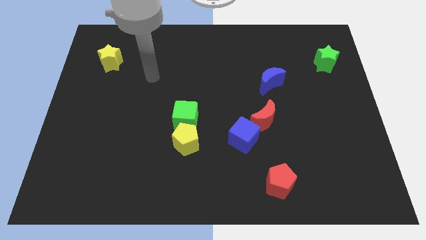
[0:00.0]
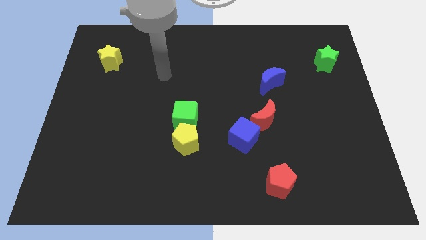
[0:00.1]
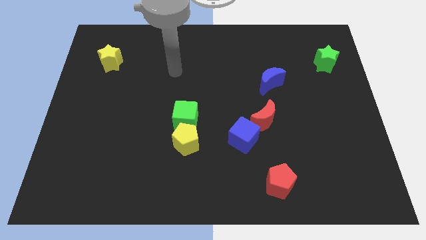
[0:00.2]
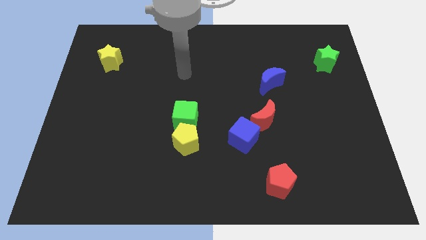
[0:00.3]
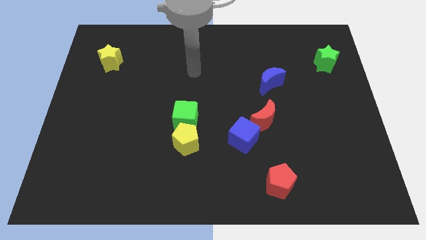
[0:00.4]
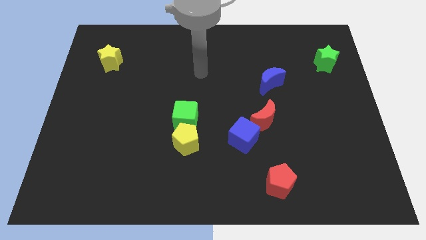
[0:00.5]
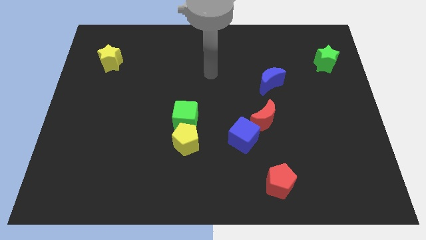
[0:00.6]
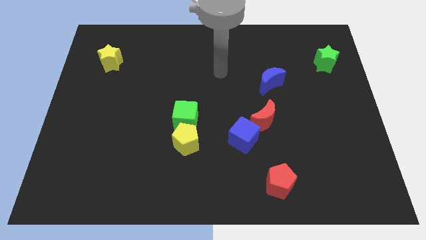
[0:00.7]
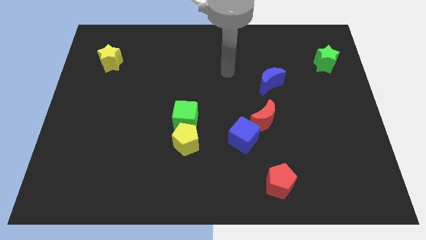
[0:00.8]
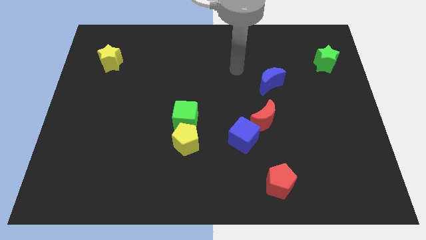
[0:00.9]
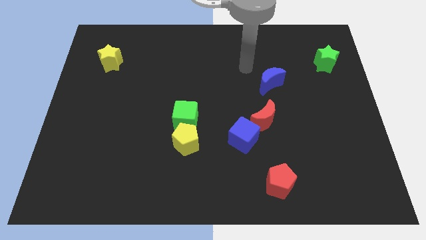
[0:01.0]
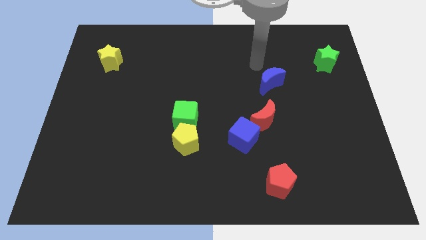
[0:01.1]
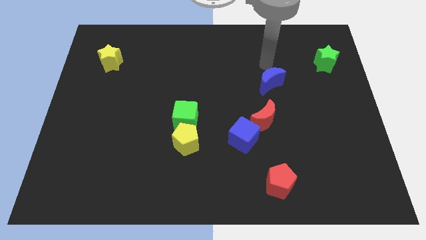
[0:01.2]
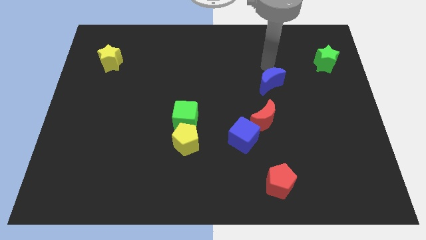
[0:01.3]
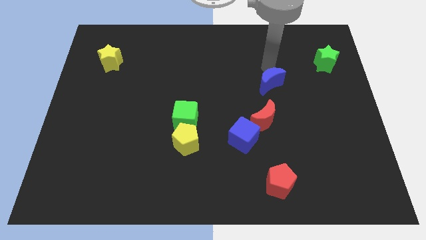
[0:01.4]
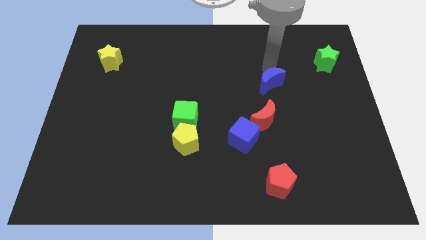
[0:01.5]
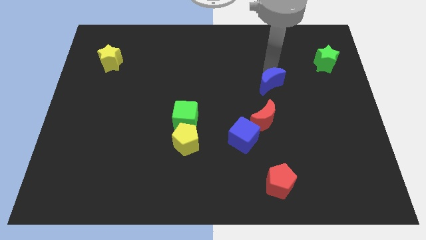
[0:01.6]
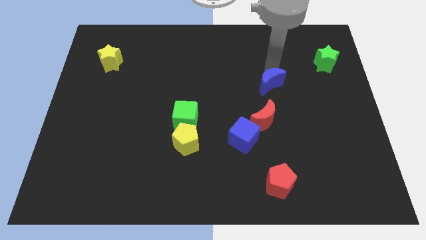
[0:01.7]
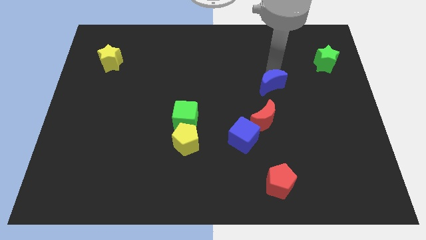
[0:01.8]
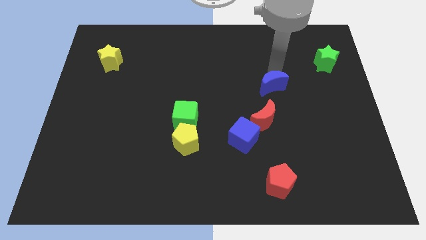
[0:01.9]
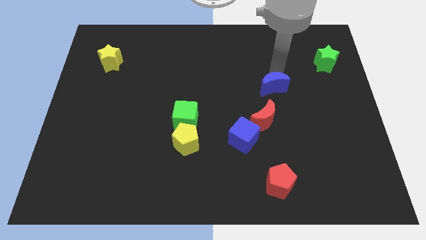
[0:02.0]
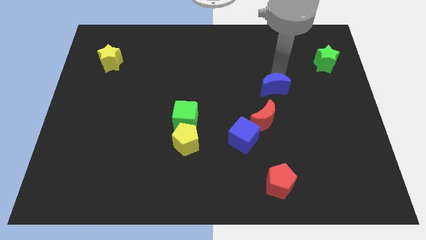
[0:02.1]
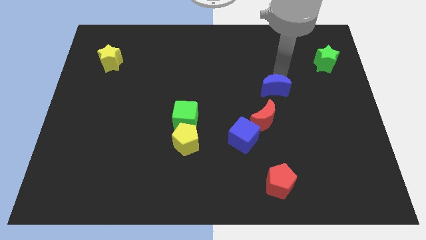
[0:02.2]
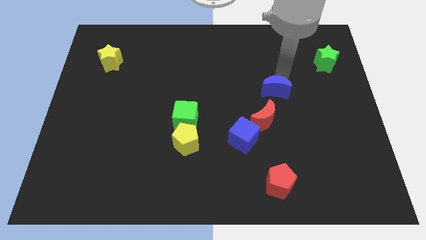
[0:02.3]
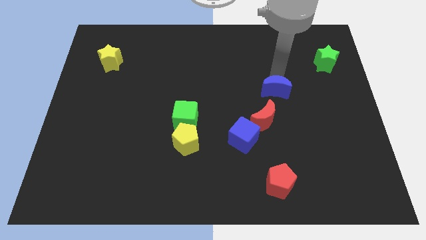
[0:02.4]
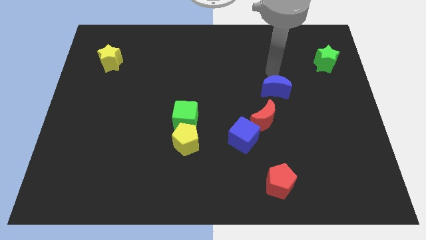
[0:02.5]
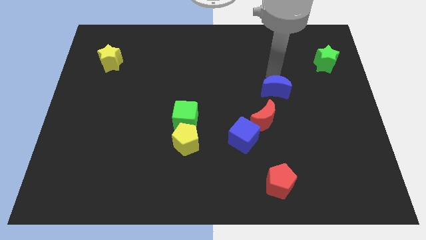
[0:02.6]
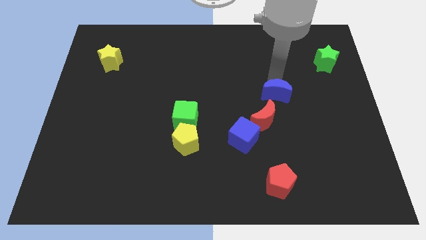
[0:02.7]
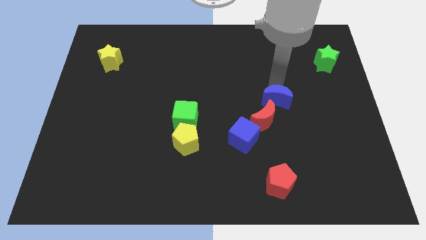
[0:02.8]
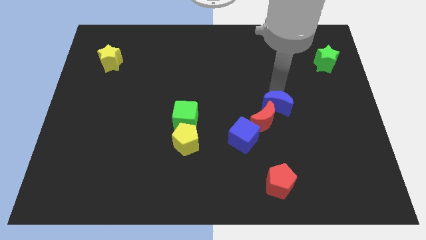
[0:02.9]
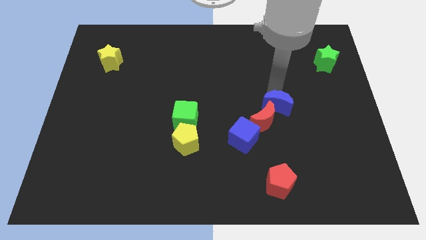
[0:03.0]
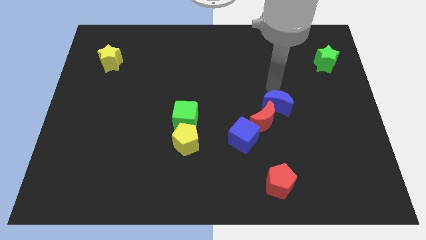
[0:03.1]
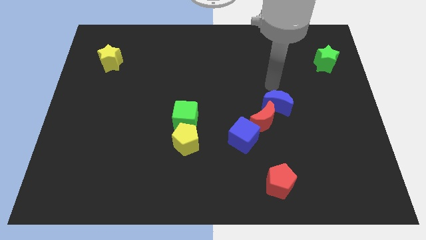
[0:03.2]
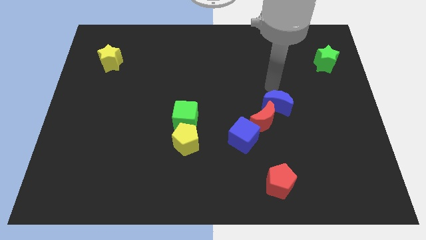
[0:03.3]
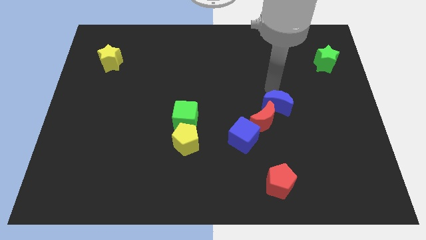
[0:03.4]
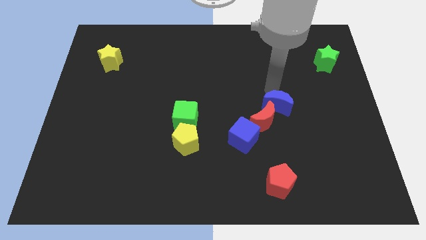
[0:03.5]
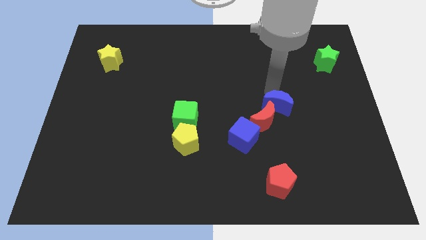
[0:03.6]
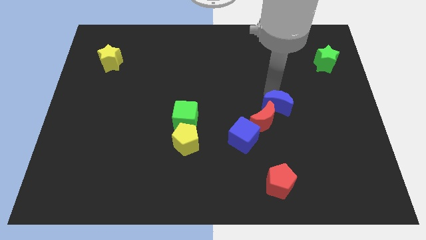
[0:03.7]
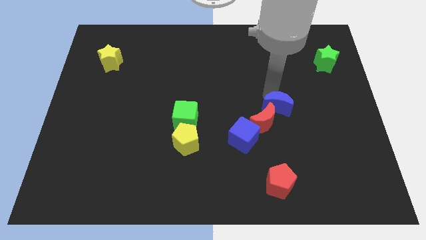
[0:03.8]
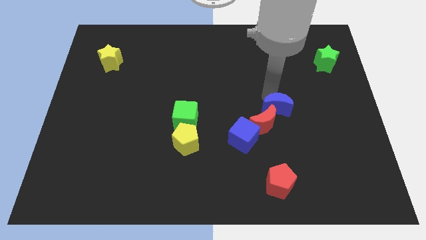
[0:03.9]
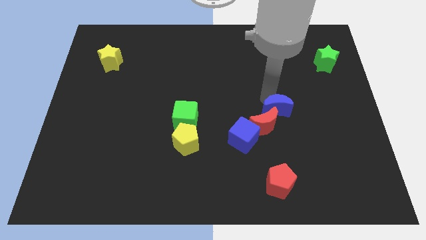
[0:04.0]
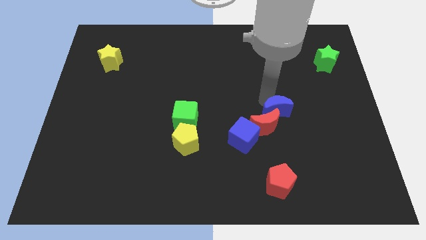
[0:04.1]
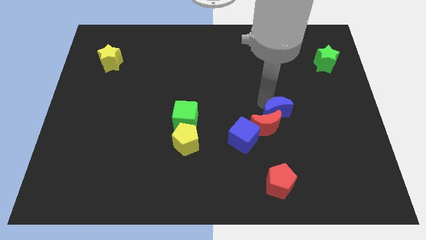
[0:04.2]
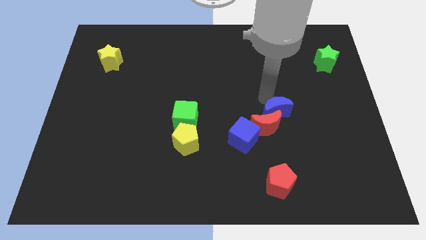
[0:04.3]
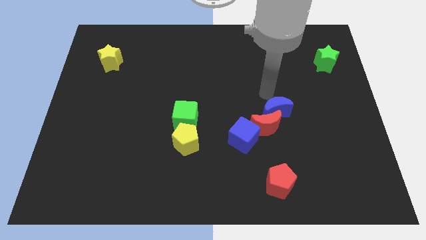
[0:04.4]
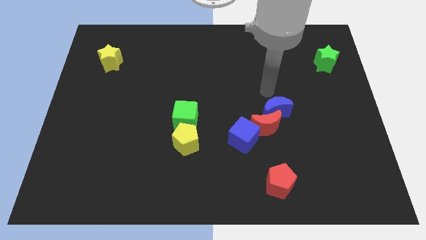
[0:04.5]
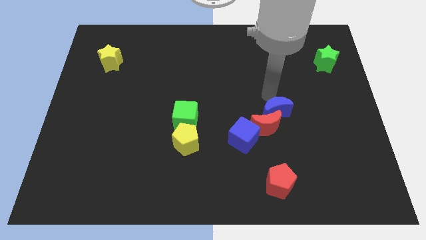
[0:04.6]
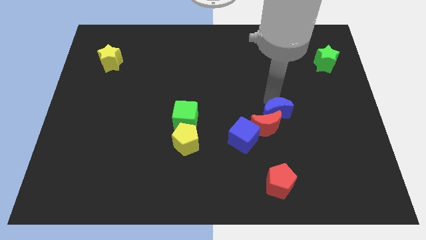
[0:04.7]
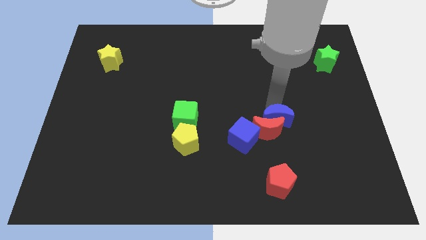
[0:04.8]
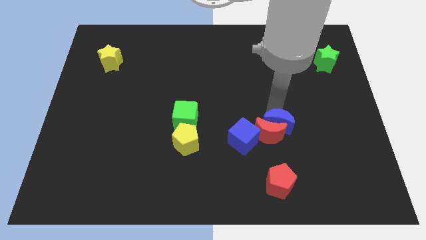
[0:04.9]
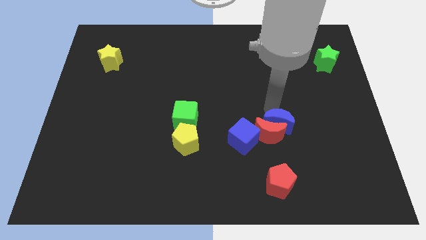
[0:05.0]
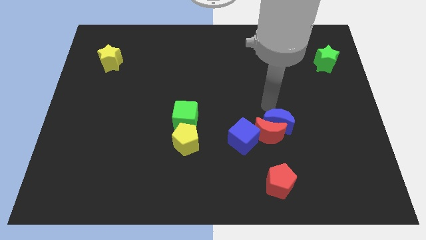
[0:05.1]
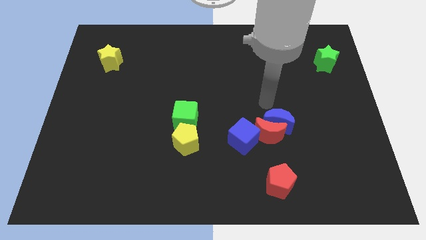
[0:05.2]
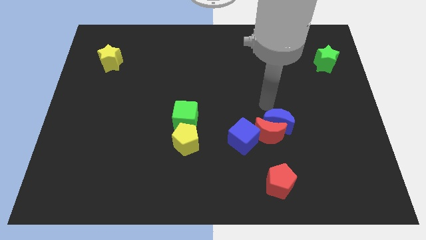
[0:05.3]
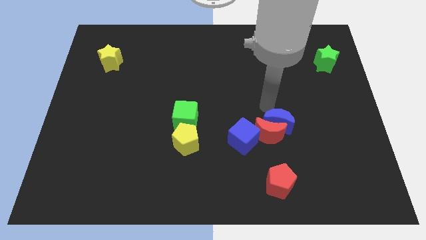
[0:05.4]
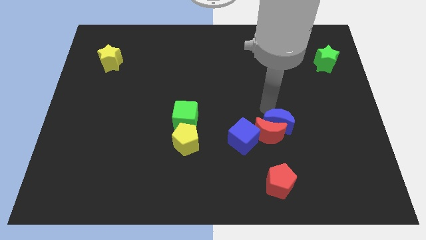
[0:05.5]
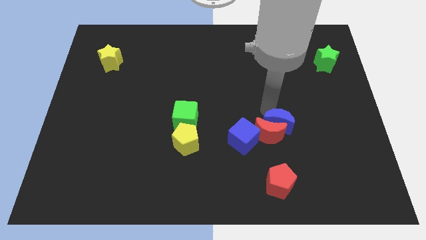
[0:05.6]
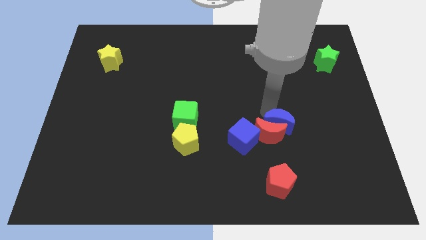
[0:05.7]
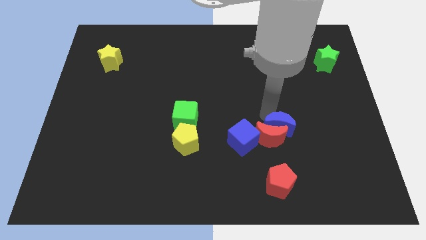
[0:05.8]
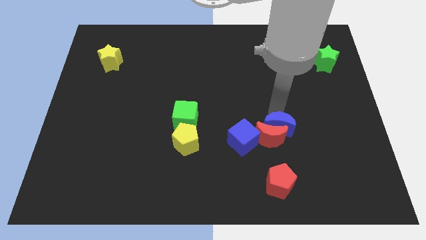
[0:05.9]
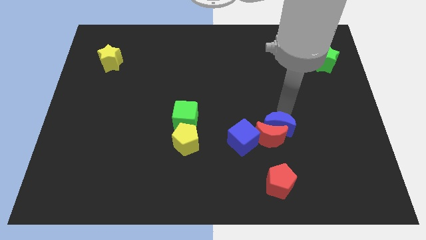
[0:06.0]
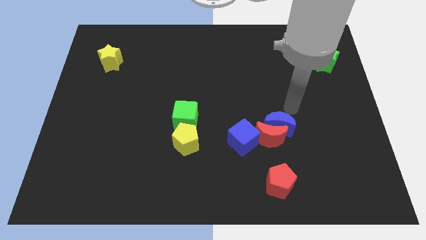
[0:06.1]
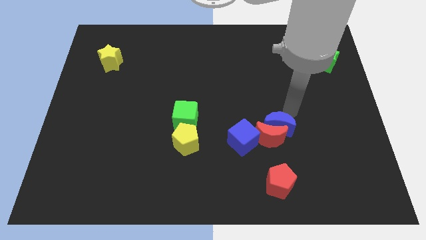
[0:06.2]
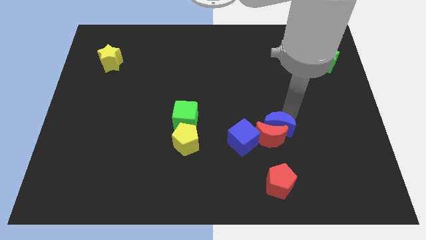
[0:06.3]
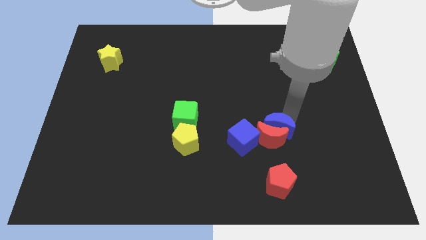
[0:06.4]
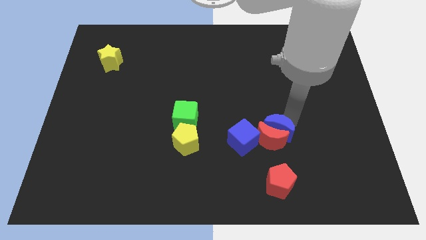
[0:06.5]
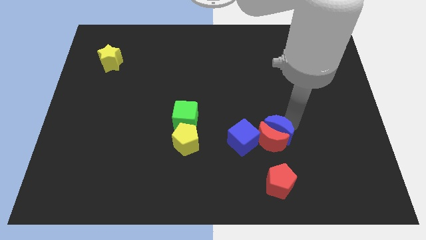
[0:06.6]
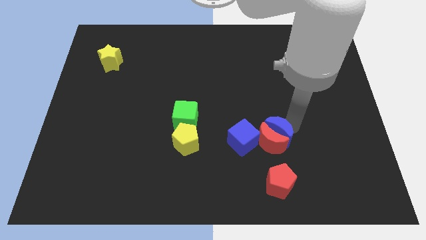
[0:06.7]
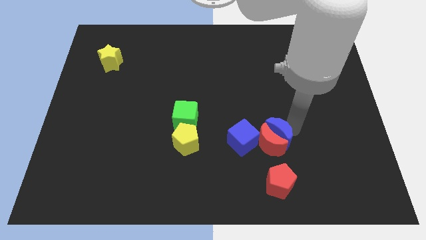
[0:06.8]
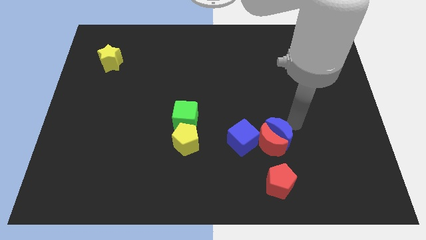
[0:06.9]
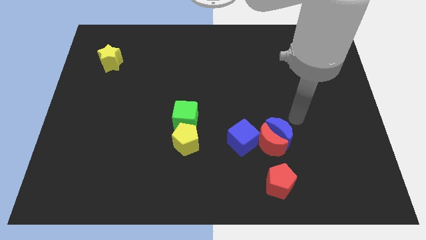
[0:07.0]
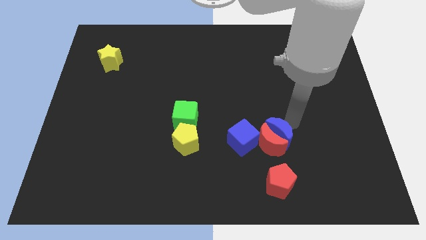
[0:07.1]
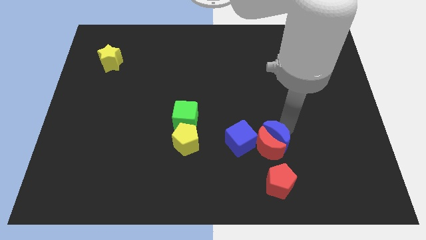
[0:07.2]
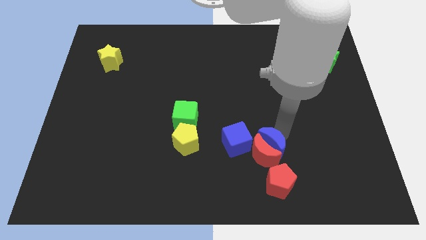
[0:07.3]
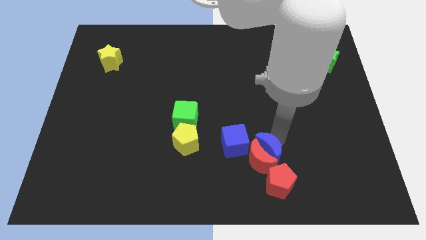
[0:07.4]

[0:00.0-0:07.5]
move the blue moon to the top left of the red pentagon
